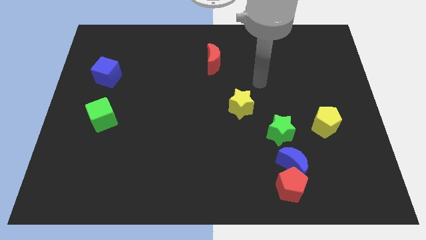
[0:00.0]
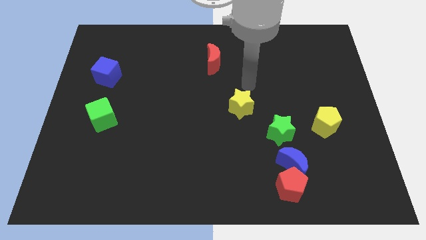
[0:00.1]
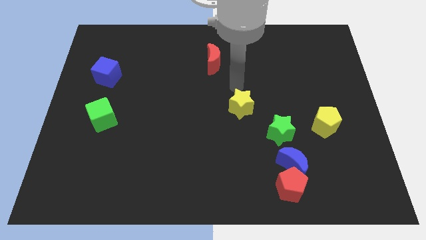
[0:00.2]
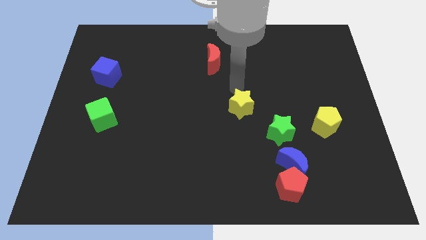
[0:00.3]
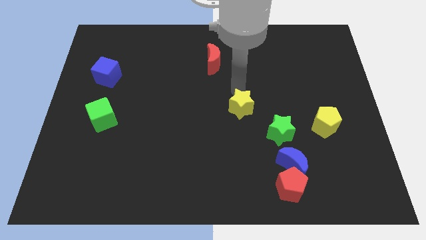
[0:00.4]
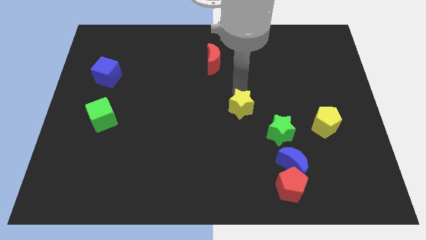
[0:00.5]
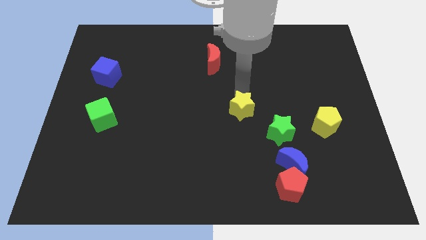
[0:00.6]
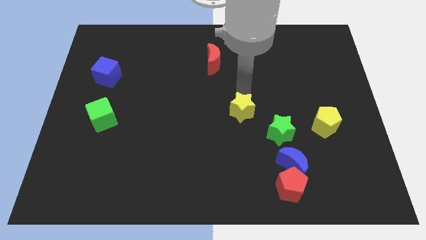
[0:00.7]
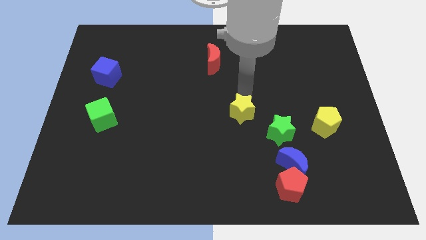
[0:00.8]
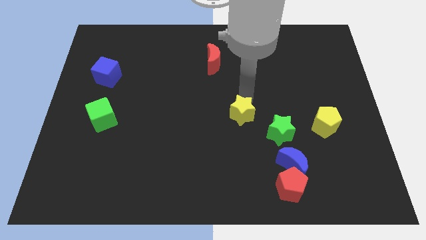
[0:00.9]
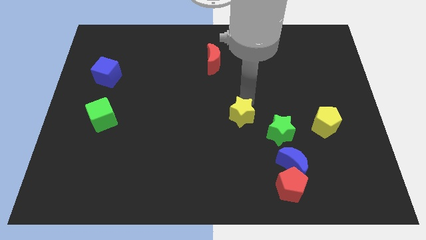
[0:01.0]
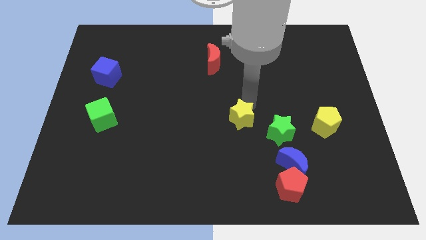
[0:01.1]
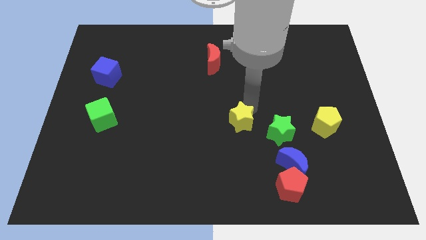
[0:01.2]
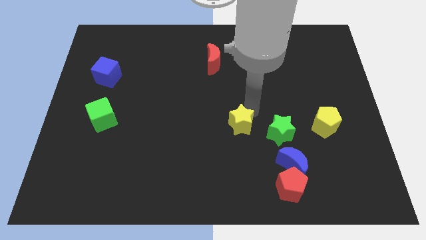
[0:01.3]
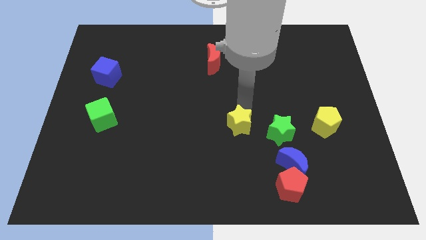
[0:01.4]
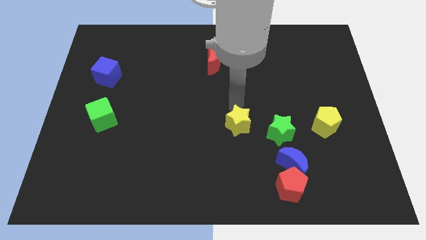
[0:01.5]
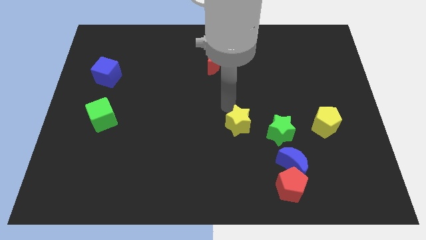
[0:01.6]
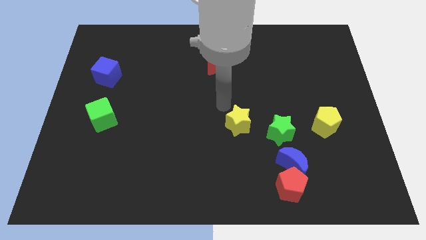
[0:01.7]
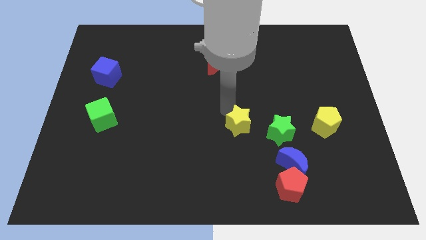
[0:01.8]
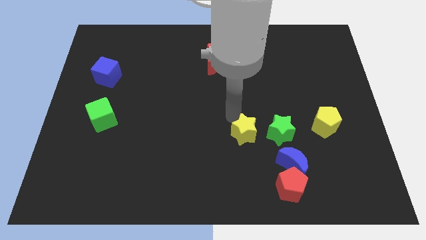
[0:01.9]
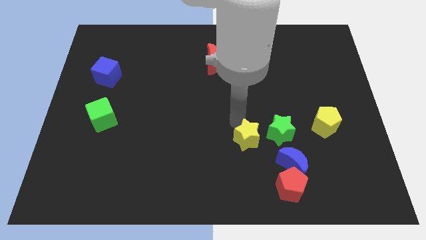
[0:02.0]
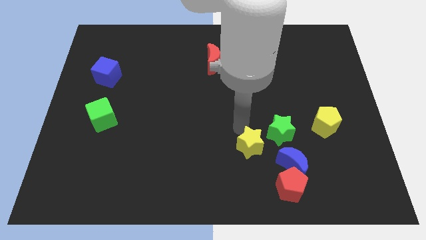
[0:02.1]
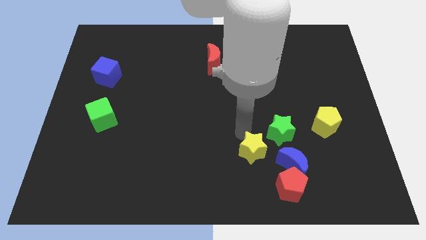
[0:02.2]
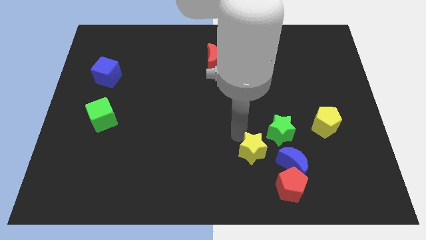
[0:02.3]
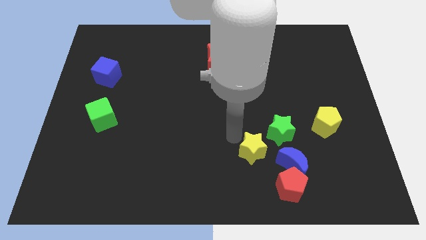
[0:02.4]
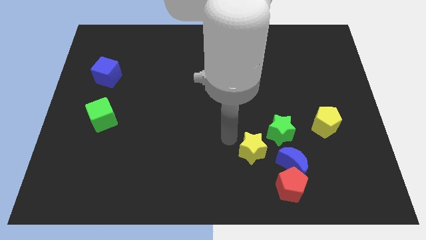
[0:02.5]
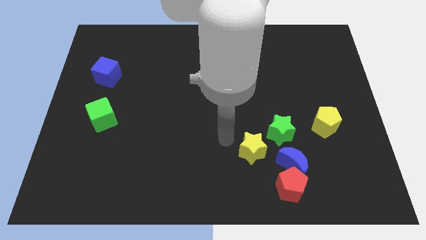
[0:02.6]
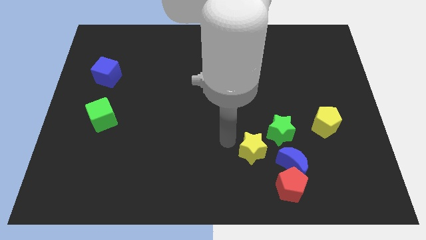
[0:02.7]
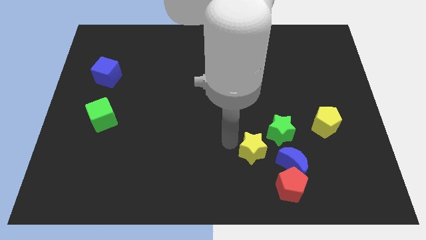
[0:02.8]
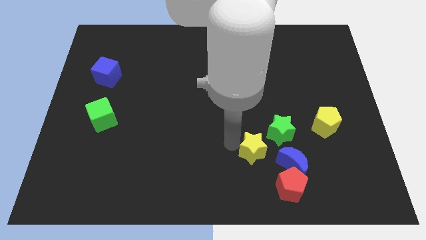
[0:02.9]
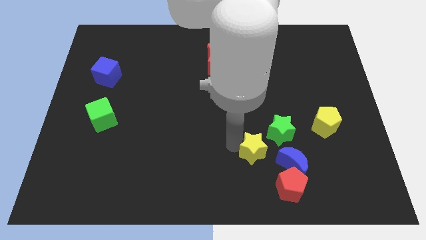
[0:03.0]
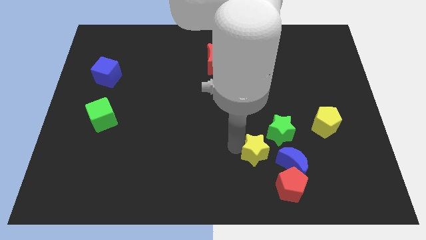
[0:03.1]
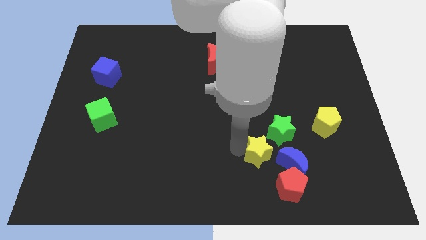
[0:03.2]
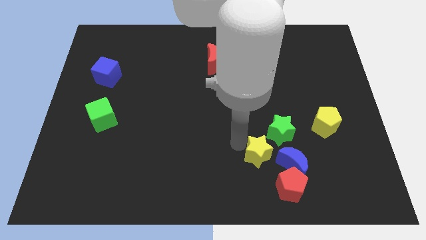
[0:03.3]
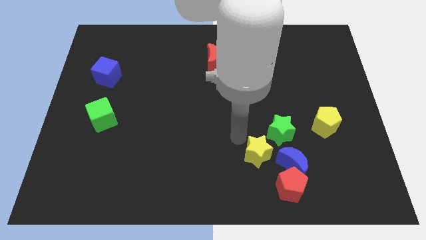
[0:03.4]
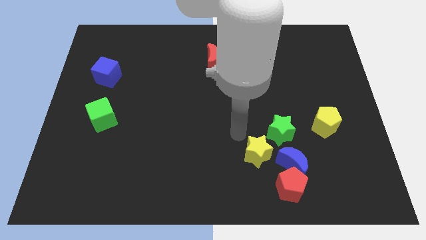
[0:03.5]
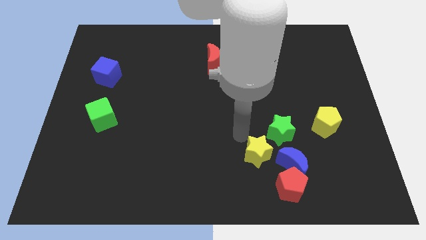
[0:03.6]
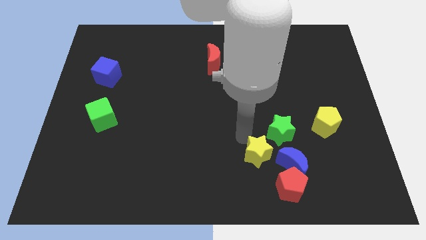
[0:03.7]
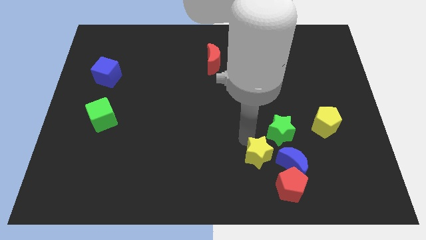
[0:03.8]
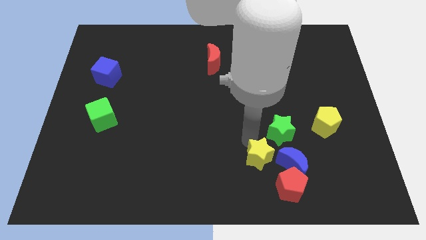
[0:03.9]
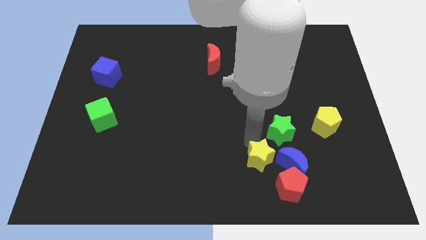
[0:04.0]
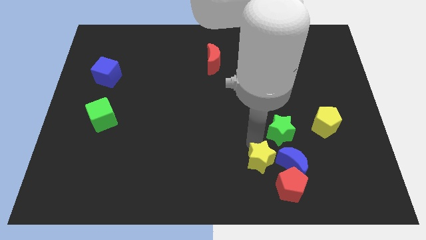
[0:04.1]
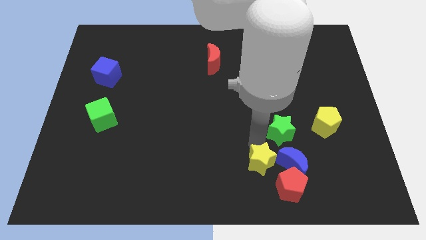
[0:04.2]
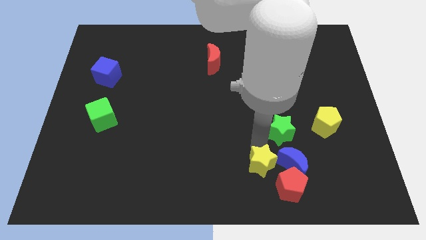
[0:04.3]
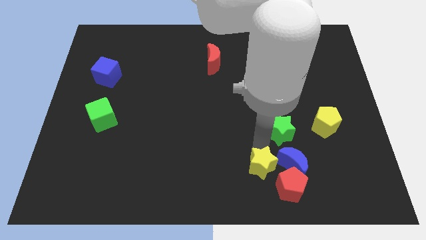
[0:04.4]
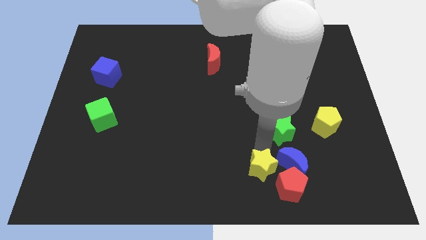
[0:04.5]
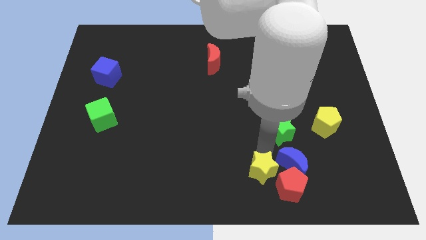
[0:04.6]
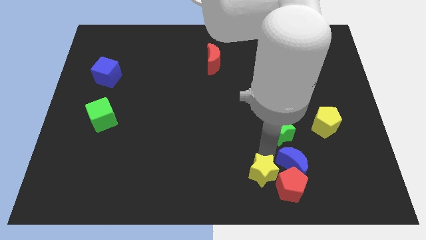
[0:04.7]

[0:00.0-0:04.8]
push the yellow star next to the red pentagon

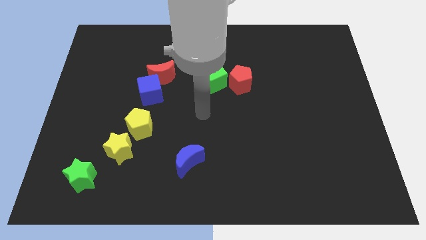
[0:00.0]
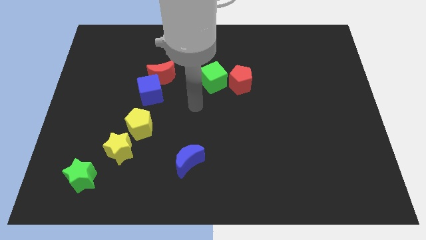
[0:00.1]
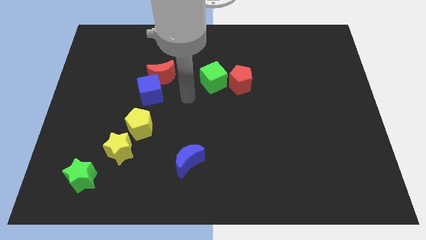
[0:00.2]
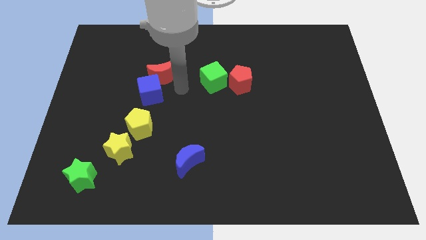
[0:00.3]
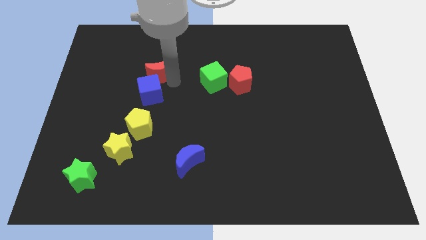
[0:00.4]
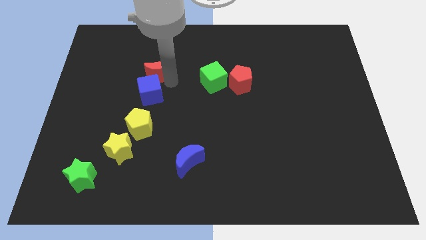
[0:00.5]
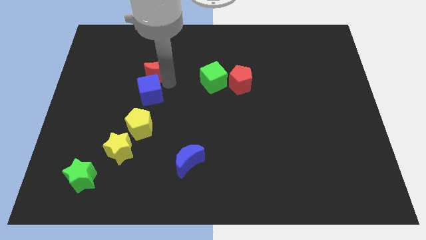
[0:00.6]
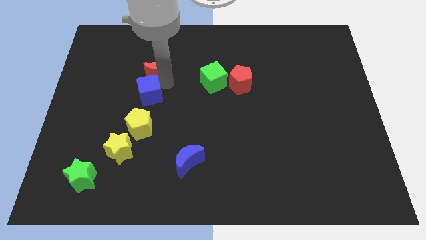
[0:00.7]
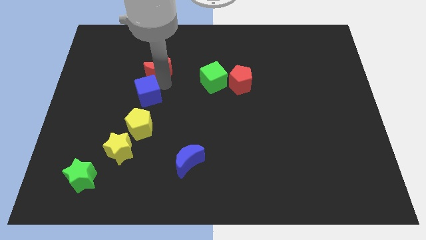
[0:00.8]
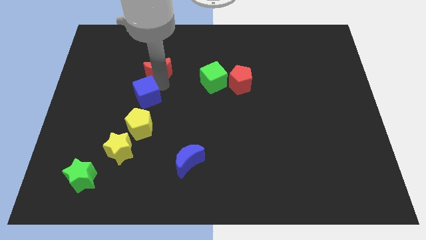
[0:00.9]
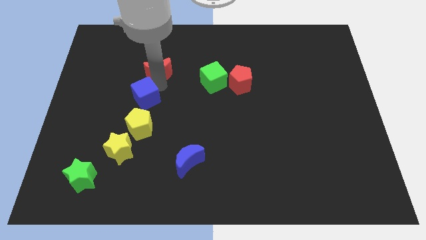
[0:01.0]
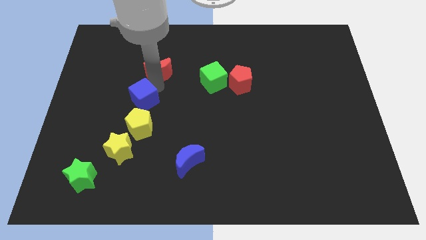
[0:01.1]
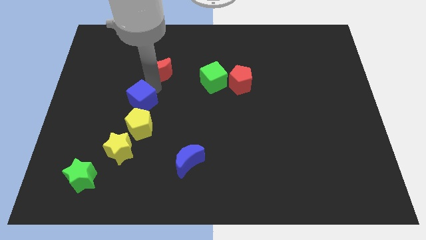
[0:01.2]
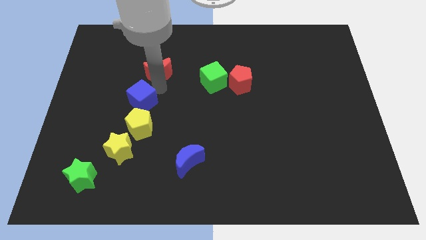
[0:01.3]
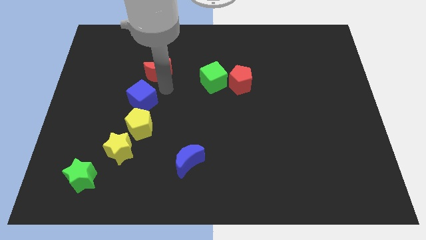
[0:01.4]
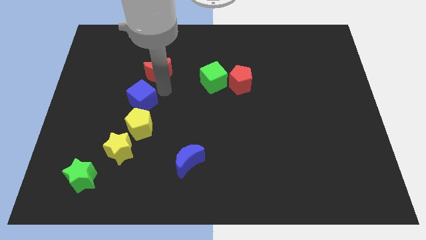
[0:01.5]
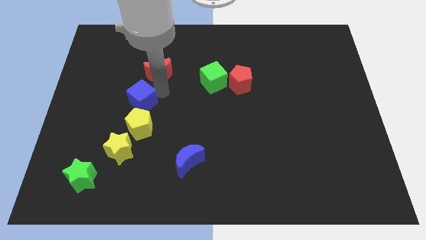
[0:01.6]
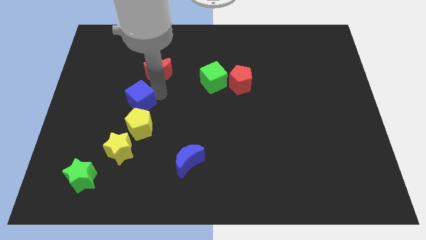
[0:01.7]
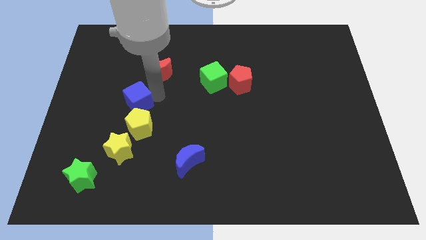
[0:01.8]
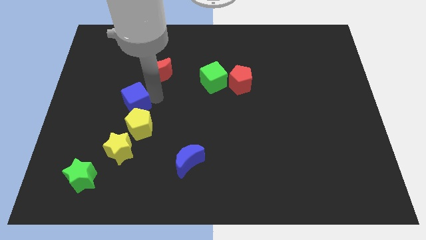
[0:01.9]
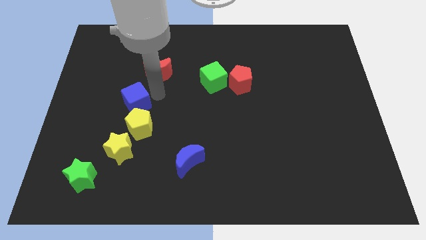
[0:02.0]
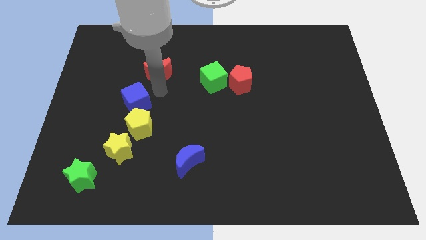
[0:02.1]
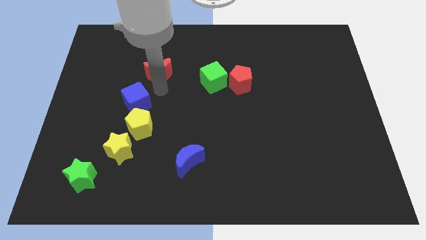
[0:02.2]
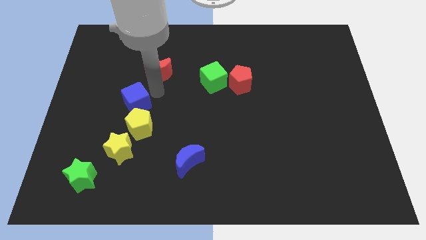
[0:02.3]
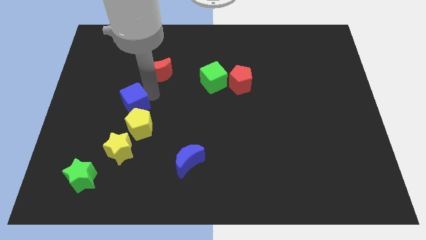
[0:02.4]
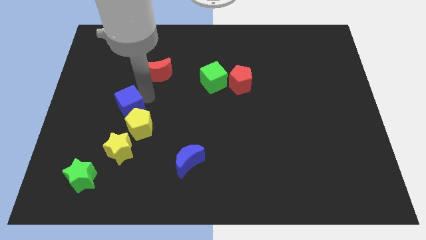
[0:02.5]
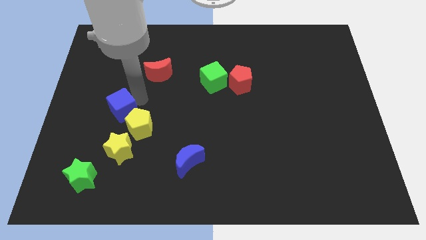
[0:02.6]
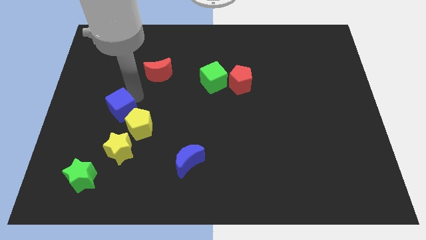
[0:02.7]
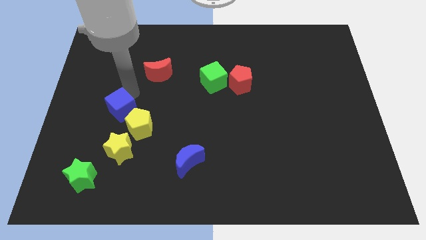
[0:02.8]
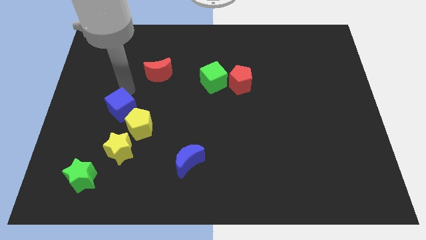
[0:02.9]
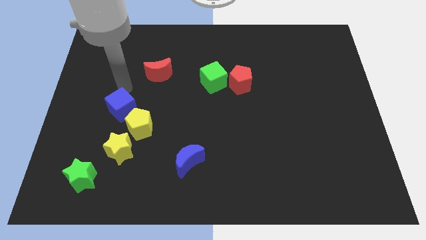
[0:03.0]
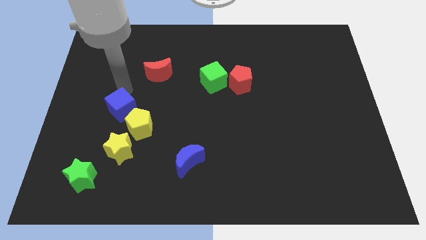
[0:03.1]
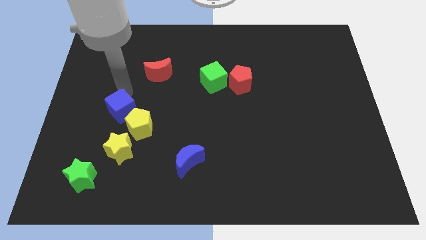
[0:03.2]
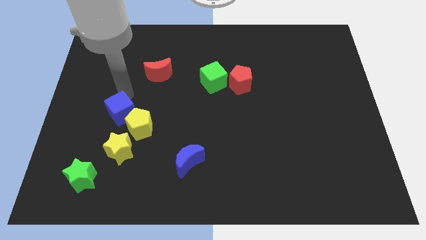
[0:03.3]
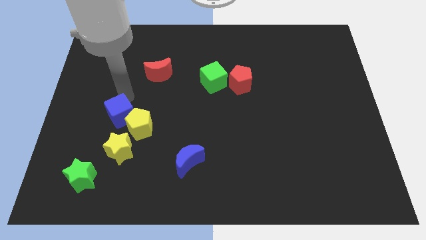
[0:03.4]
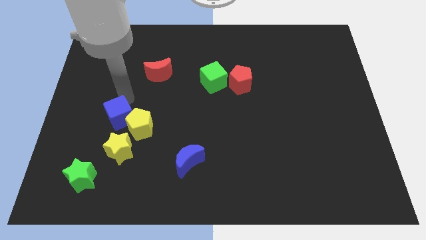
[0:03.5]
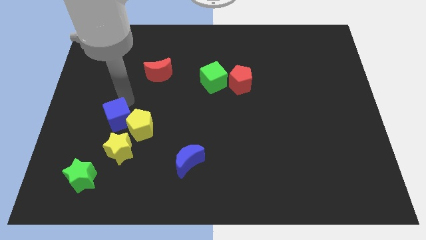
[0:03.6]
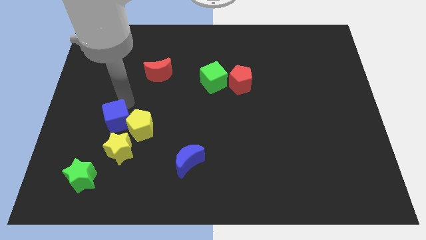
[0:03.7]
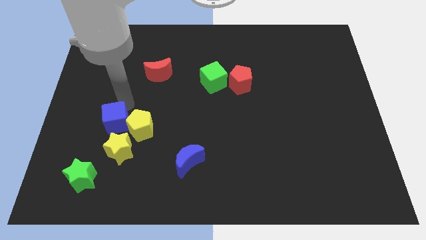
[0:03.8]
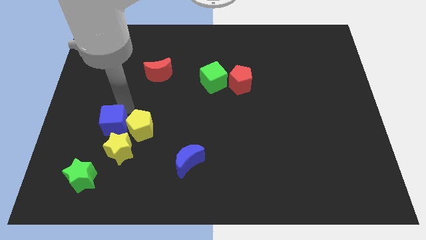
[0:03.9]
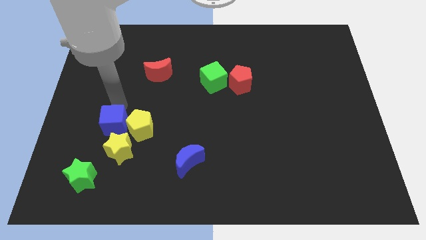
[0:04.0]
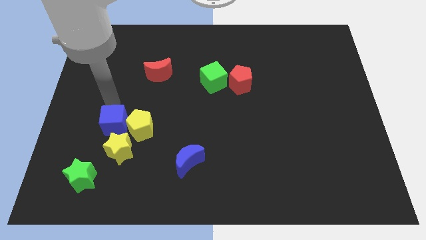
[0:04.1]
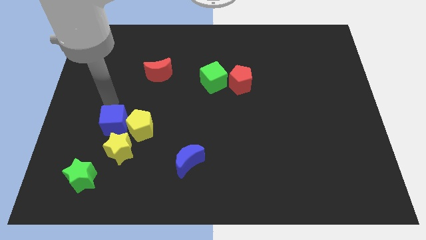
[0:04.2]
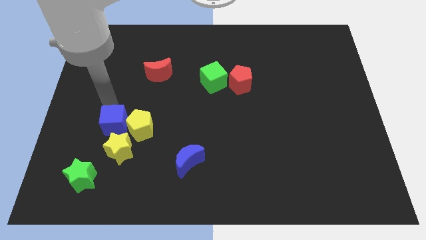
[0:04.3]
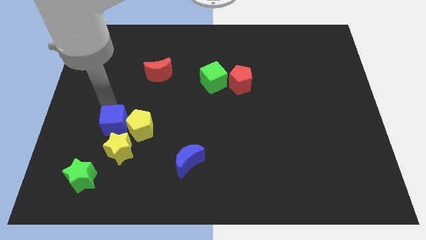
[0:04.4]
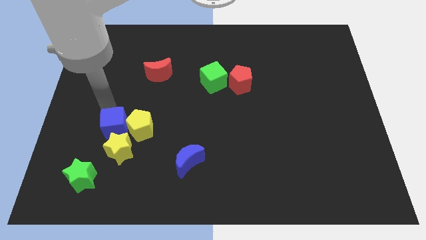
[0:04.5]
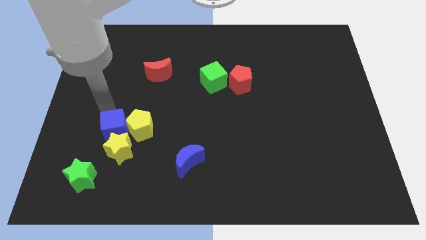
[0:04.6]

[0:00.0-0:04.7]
slide the blue cube next to the yellow star
